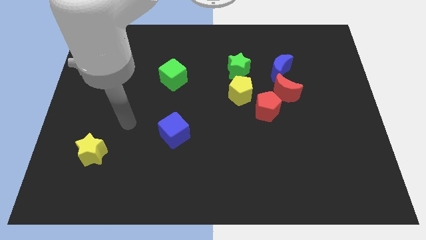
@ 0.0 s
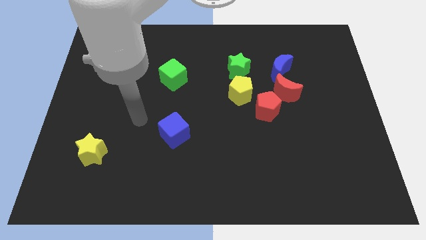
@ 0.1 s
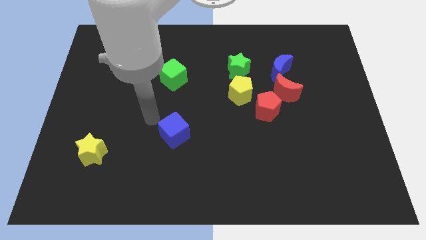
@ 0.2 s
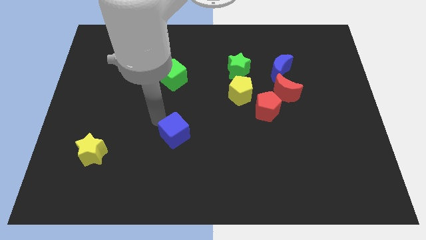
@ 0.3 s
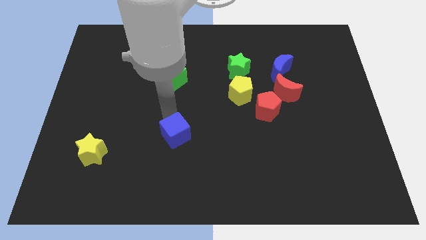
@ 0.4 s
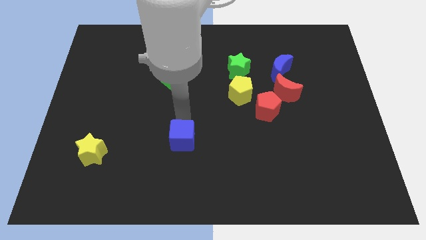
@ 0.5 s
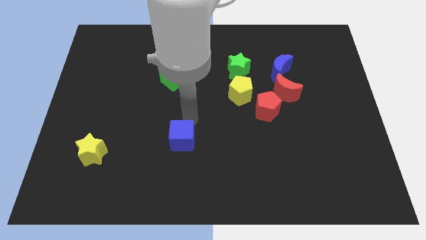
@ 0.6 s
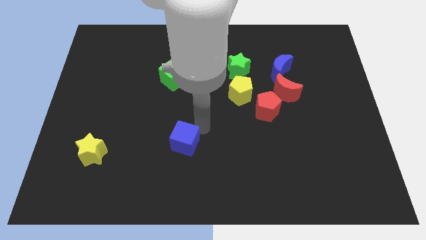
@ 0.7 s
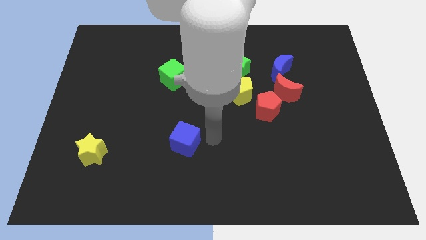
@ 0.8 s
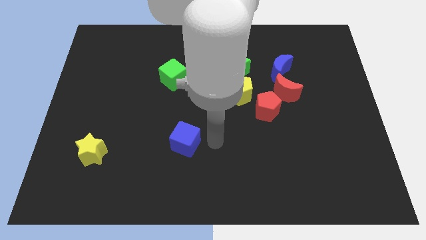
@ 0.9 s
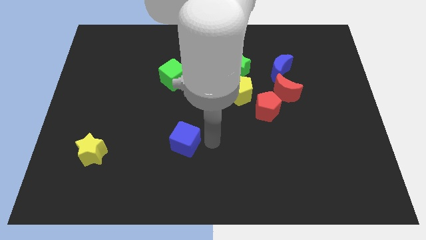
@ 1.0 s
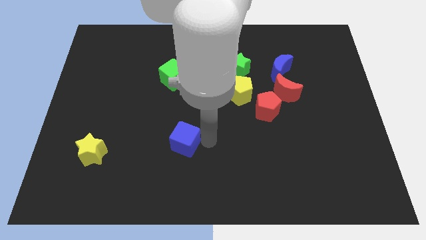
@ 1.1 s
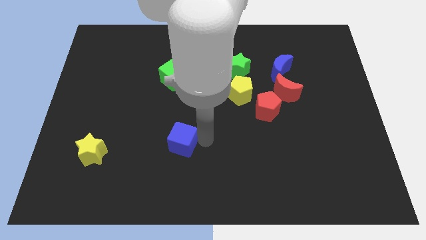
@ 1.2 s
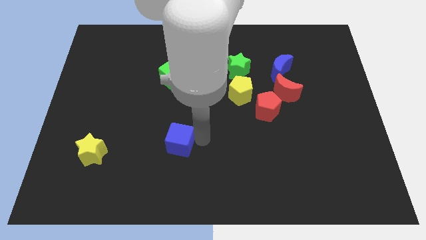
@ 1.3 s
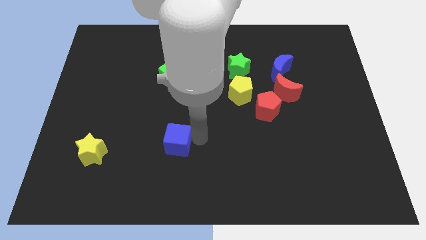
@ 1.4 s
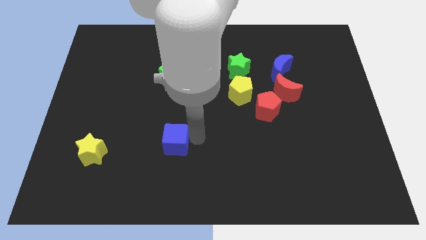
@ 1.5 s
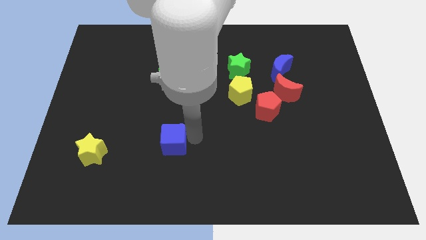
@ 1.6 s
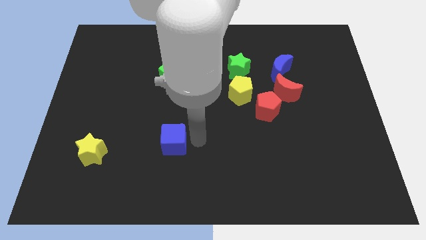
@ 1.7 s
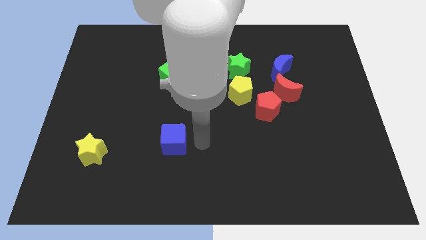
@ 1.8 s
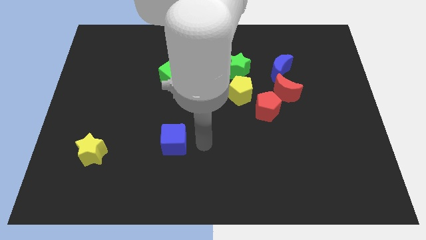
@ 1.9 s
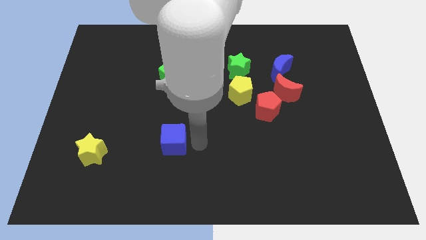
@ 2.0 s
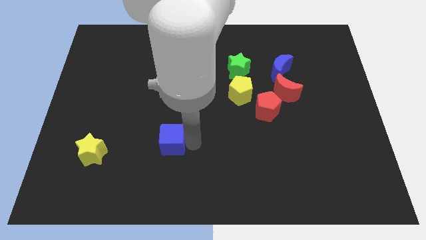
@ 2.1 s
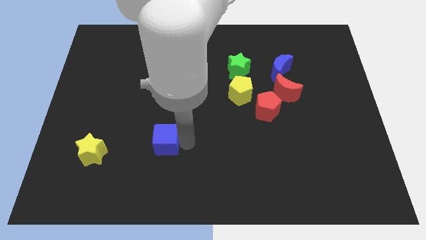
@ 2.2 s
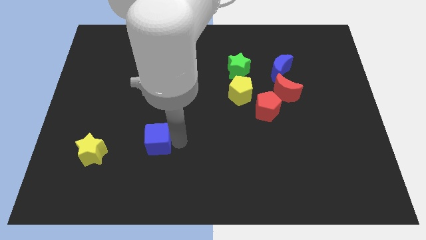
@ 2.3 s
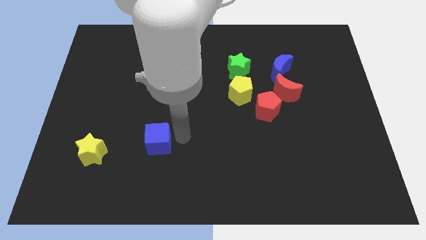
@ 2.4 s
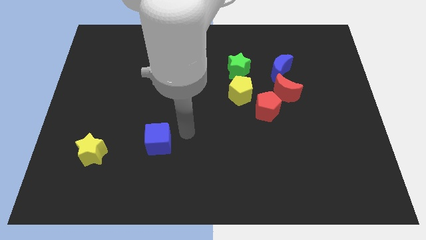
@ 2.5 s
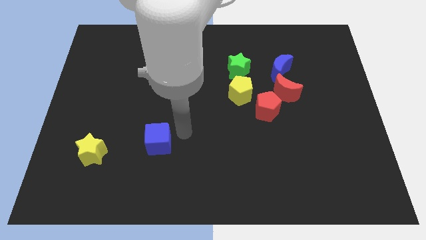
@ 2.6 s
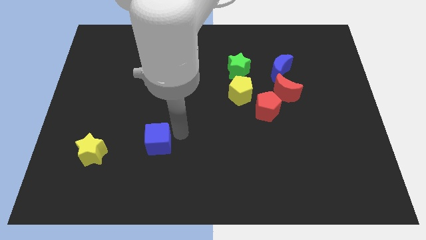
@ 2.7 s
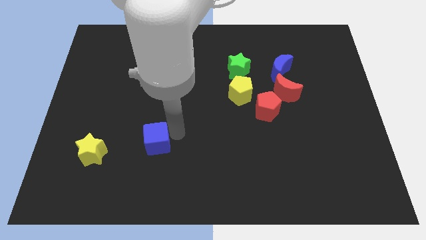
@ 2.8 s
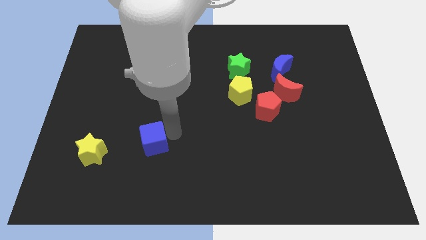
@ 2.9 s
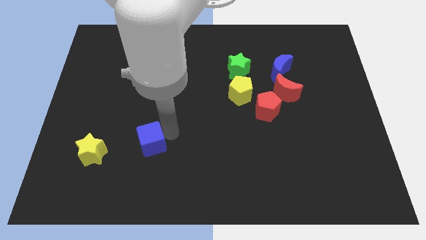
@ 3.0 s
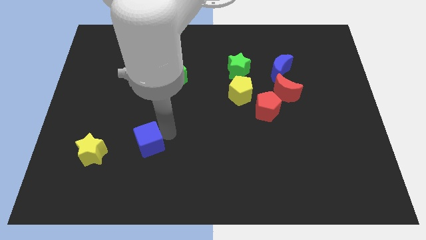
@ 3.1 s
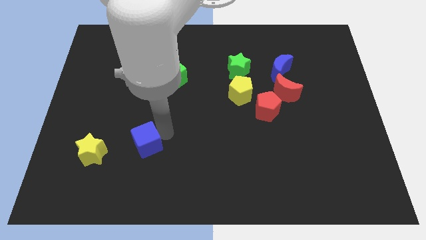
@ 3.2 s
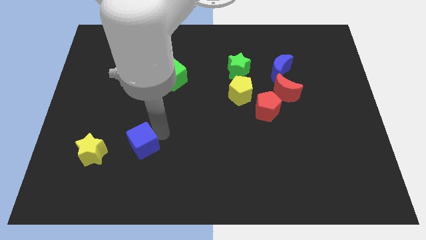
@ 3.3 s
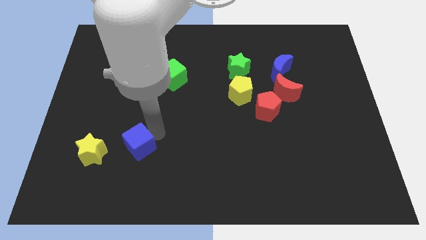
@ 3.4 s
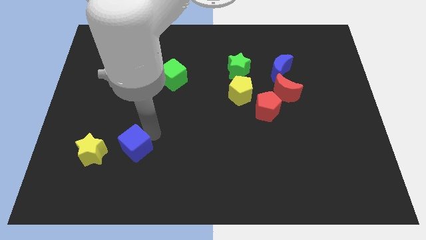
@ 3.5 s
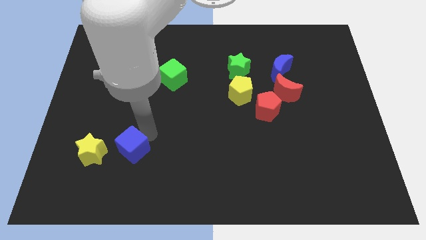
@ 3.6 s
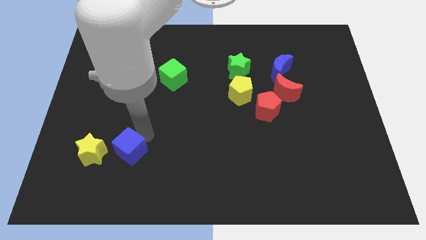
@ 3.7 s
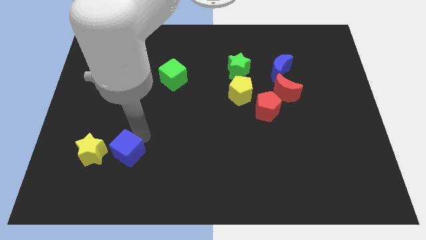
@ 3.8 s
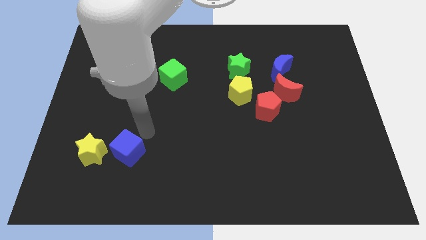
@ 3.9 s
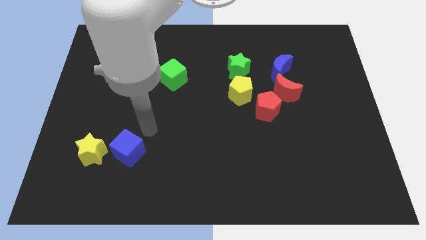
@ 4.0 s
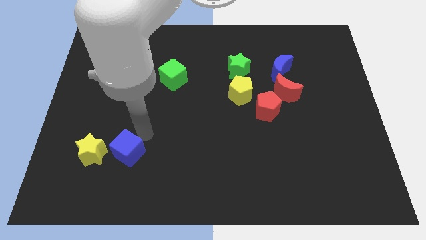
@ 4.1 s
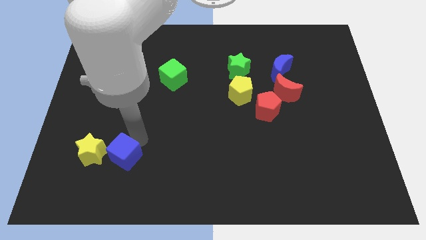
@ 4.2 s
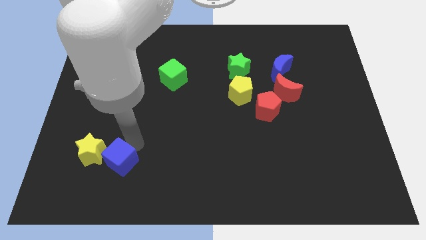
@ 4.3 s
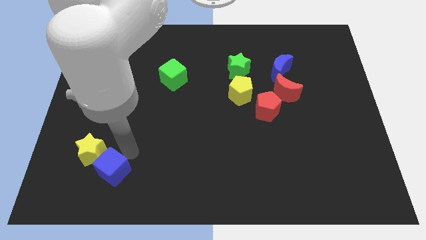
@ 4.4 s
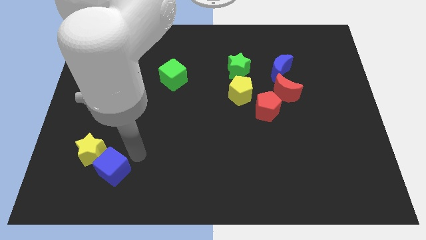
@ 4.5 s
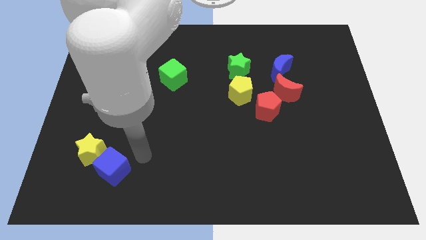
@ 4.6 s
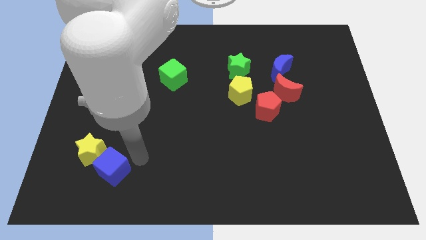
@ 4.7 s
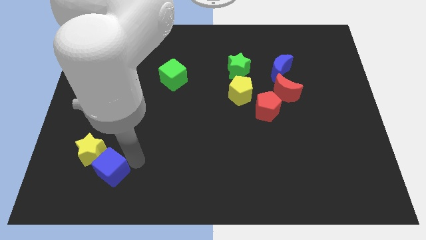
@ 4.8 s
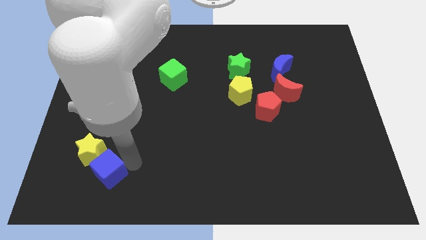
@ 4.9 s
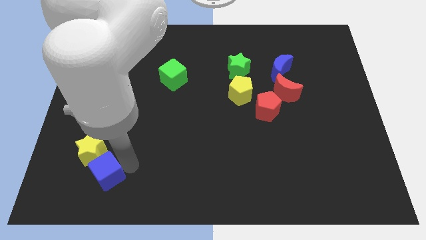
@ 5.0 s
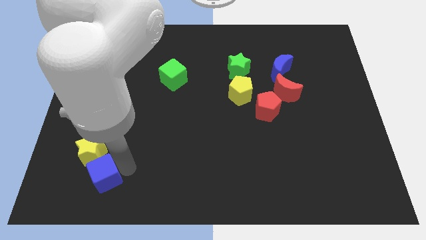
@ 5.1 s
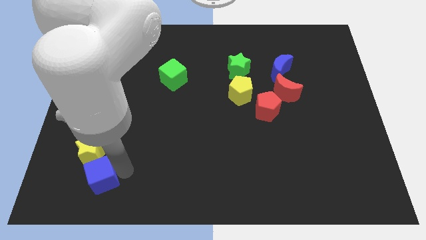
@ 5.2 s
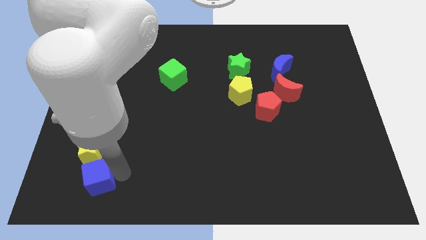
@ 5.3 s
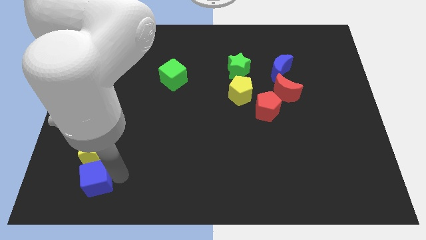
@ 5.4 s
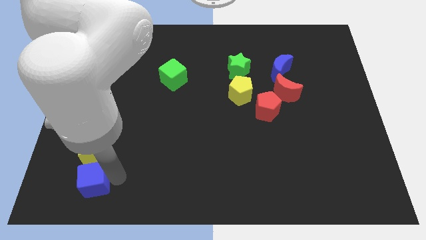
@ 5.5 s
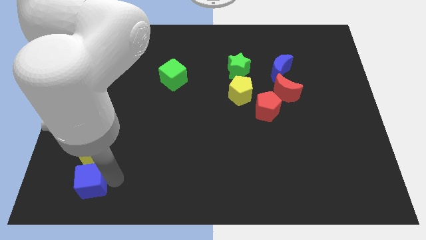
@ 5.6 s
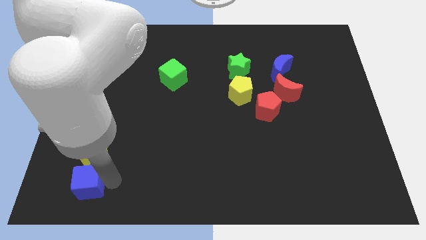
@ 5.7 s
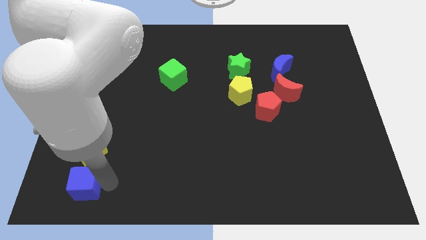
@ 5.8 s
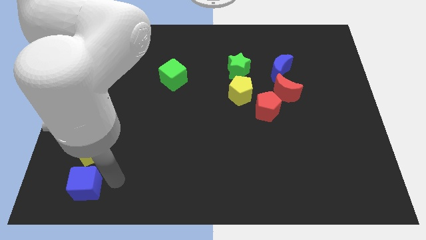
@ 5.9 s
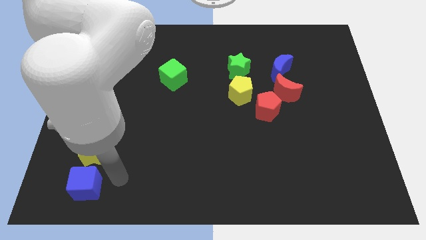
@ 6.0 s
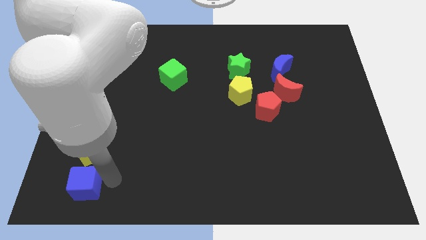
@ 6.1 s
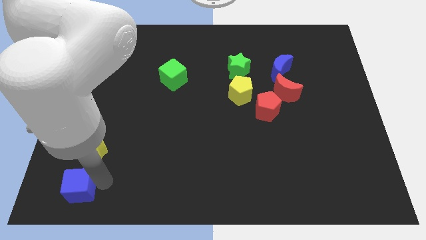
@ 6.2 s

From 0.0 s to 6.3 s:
slide the blue cube to the lower left corner
